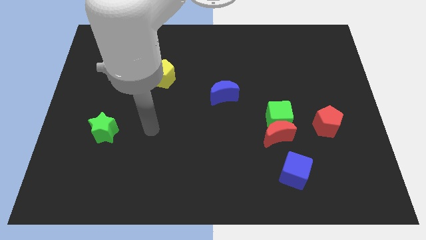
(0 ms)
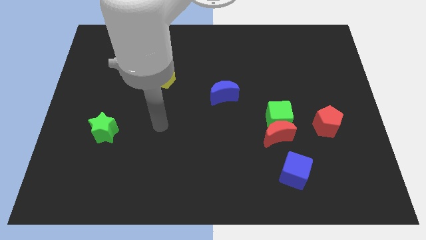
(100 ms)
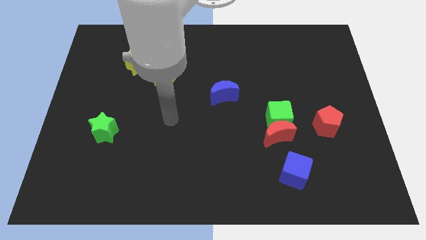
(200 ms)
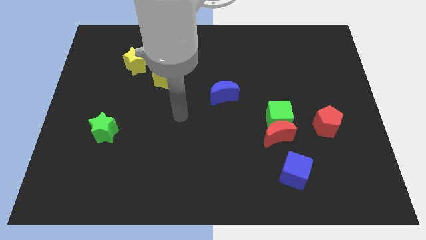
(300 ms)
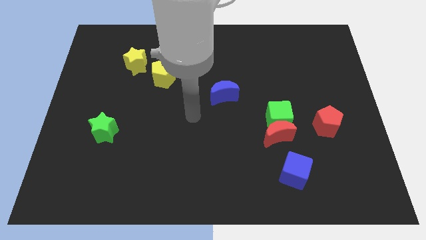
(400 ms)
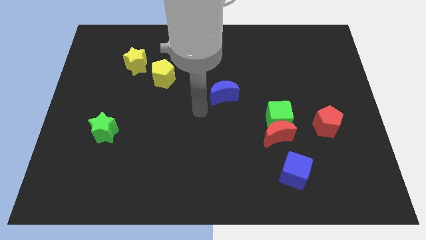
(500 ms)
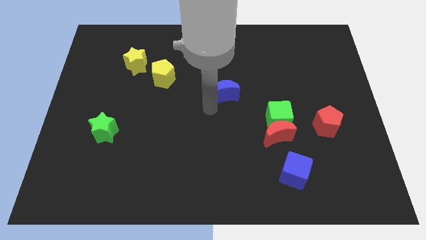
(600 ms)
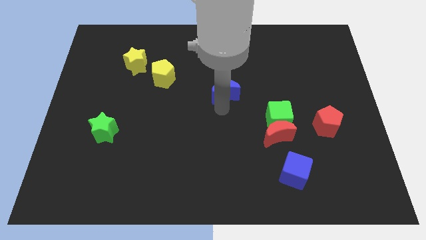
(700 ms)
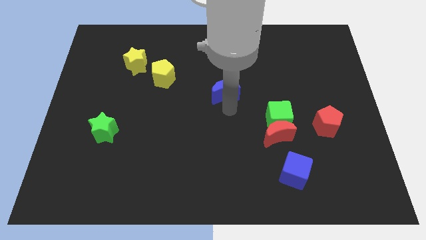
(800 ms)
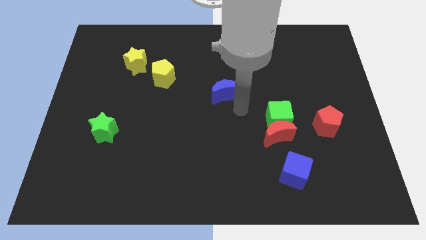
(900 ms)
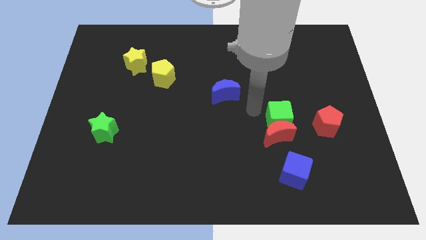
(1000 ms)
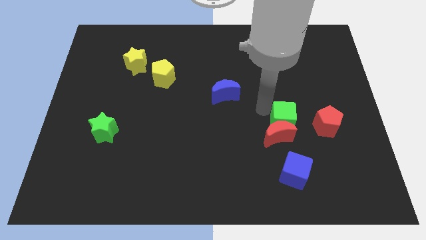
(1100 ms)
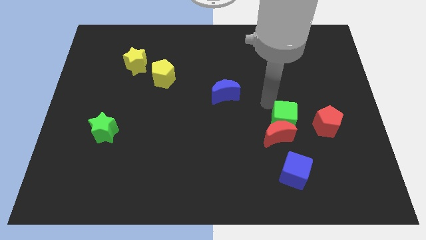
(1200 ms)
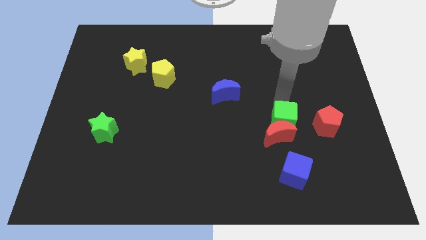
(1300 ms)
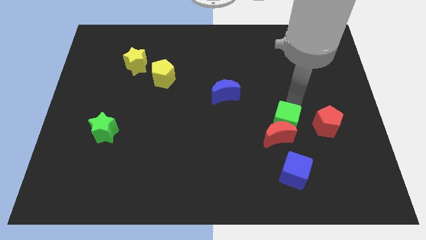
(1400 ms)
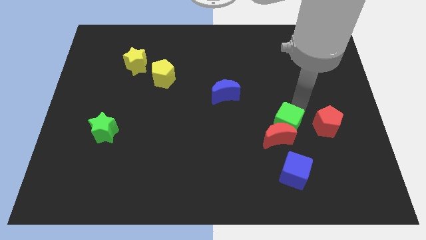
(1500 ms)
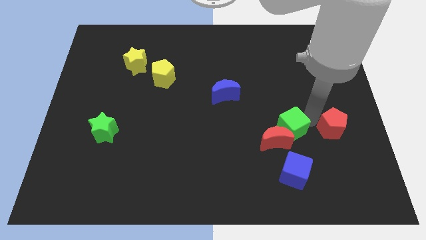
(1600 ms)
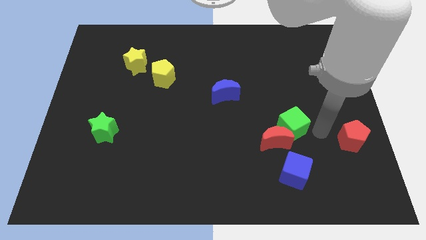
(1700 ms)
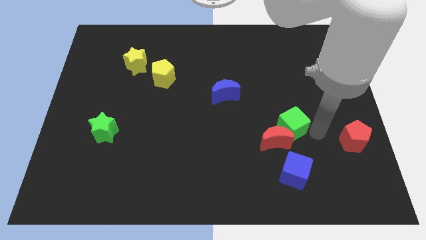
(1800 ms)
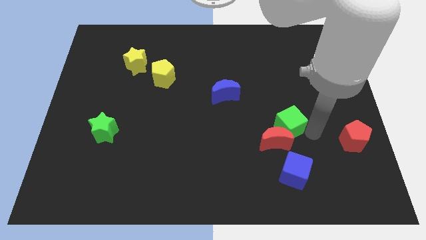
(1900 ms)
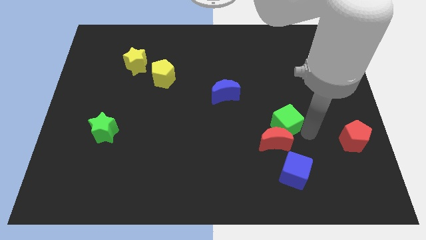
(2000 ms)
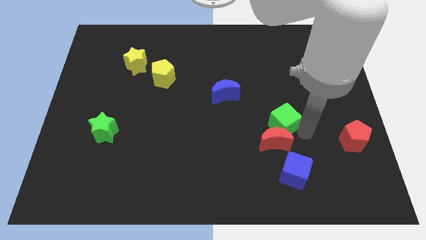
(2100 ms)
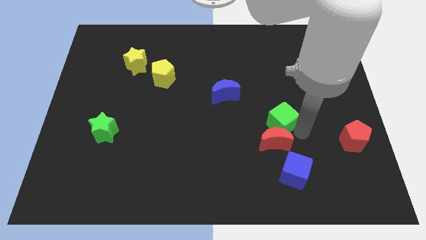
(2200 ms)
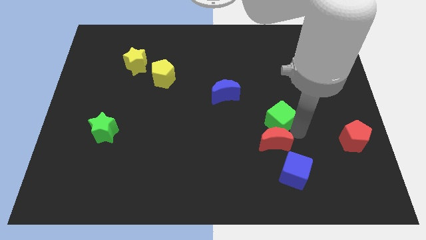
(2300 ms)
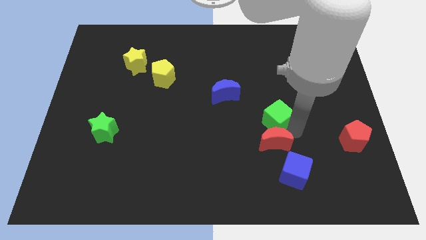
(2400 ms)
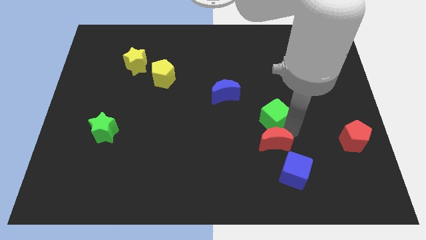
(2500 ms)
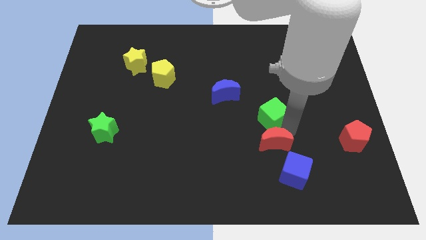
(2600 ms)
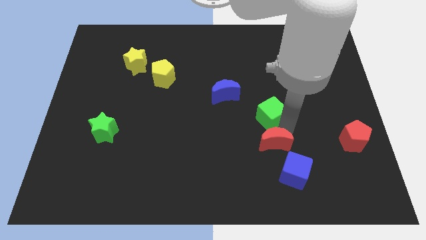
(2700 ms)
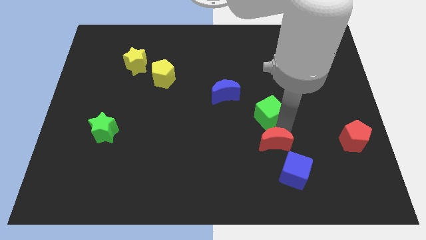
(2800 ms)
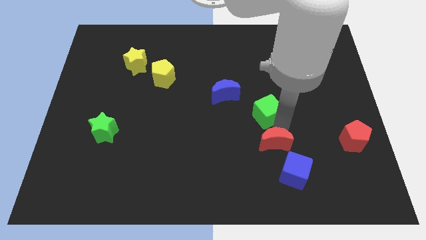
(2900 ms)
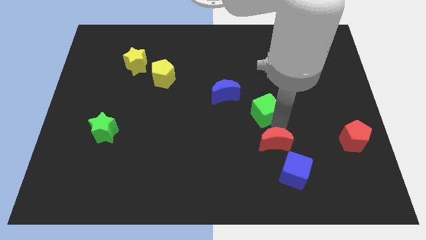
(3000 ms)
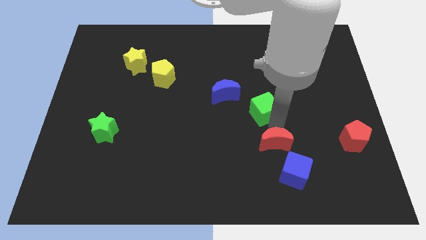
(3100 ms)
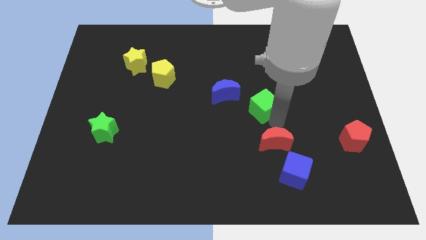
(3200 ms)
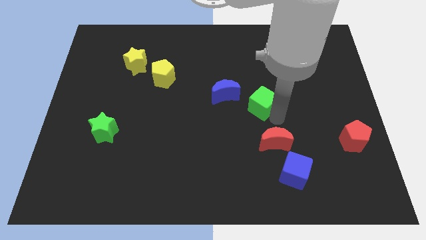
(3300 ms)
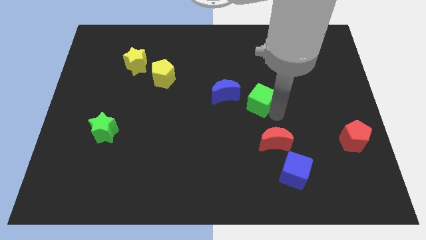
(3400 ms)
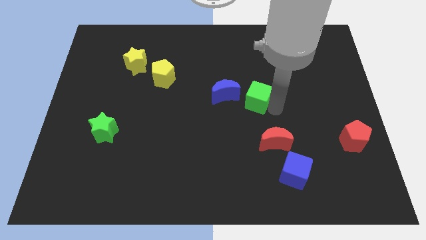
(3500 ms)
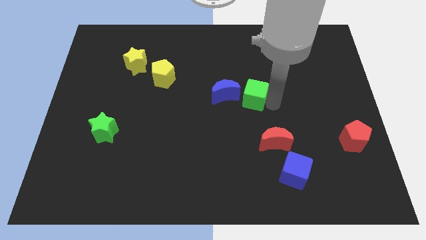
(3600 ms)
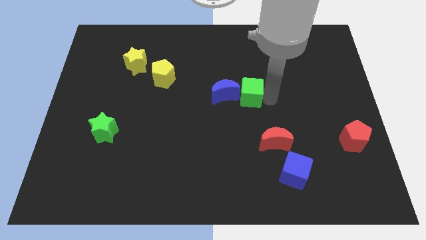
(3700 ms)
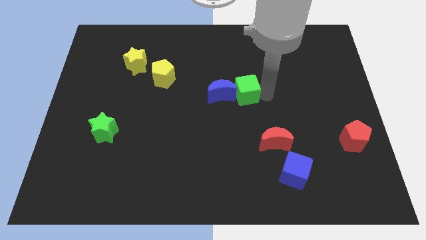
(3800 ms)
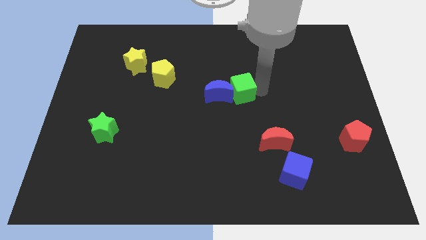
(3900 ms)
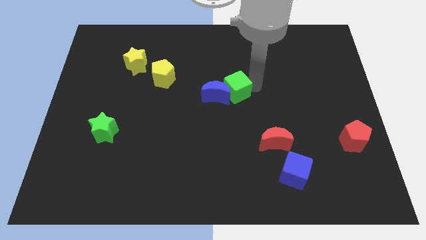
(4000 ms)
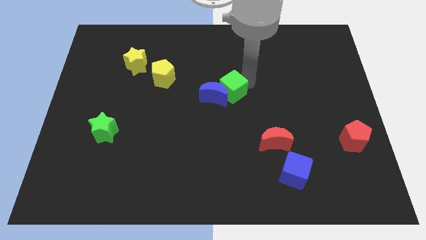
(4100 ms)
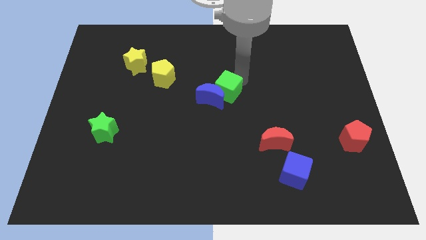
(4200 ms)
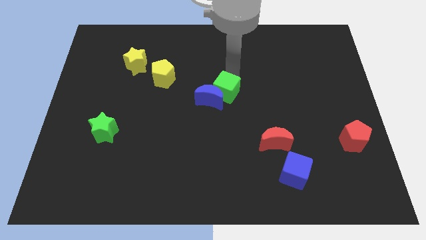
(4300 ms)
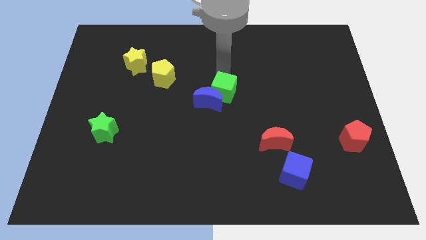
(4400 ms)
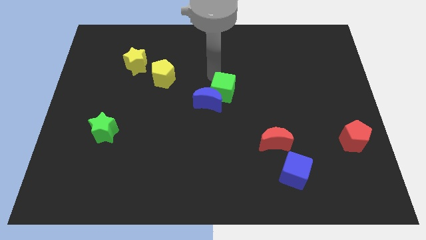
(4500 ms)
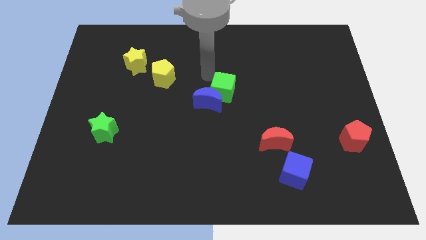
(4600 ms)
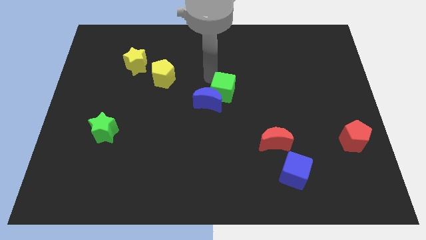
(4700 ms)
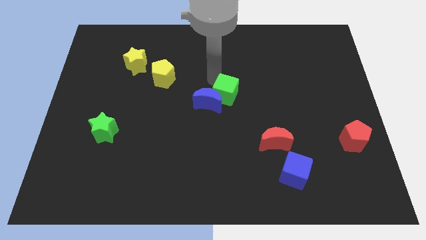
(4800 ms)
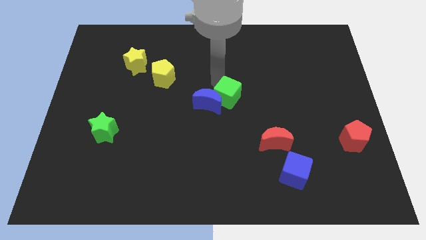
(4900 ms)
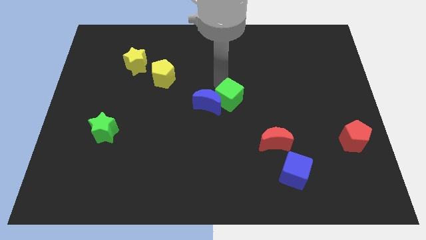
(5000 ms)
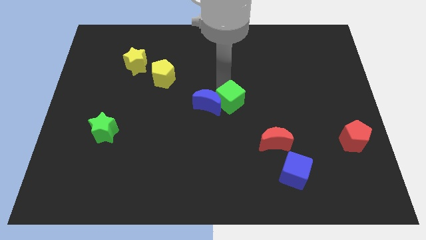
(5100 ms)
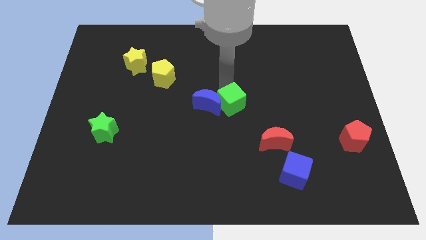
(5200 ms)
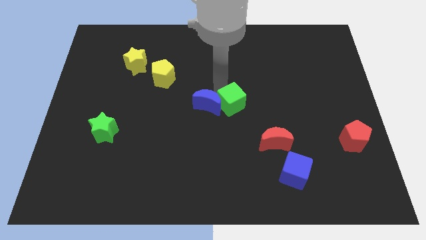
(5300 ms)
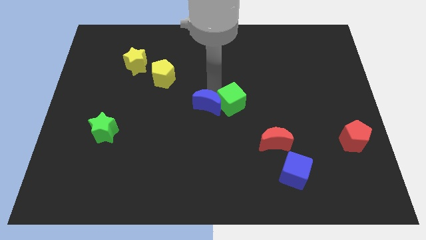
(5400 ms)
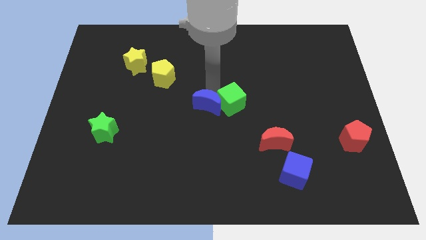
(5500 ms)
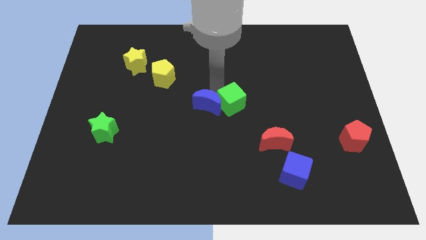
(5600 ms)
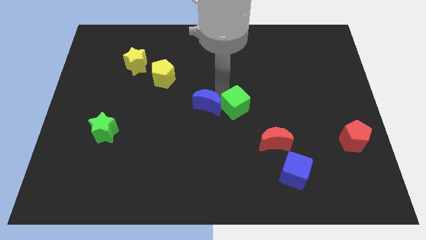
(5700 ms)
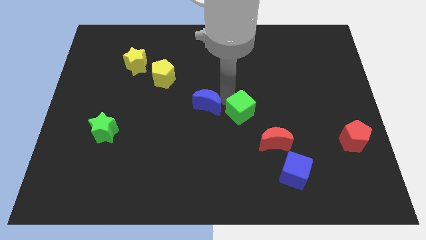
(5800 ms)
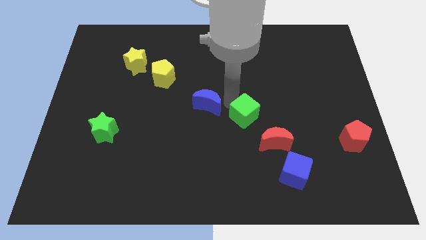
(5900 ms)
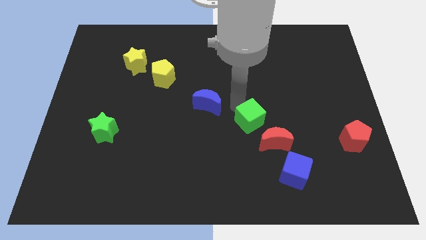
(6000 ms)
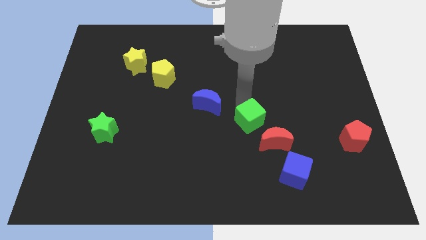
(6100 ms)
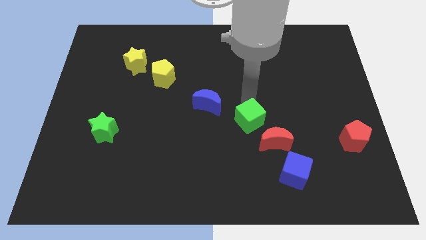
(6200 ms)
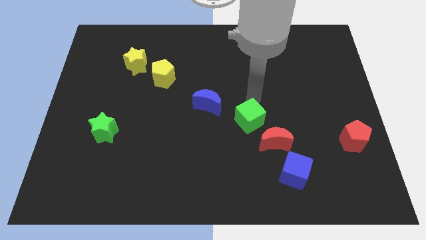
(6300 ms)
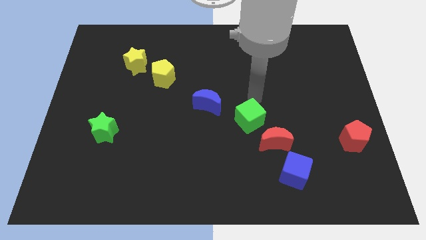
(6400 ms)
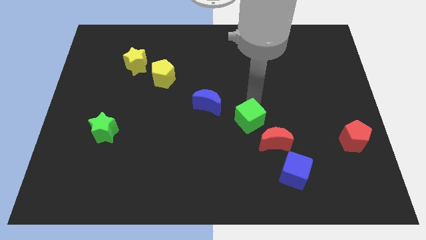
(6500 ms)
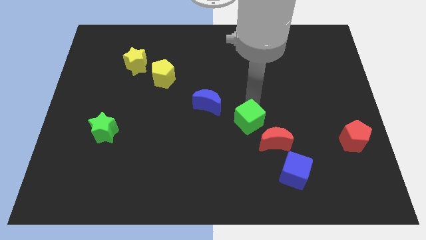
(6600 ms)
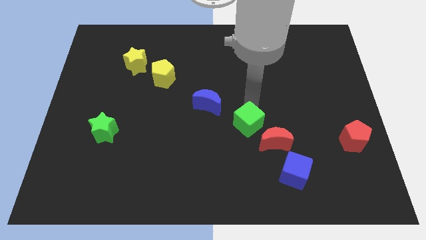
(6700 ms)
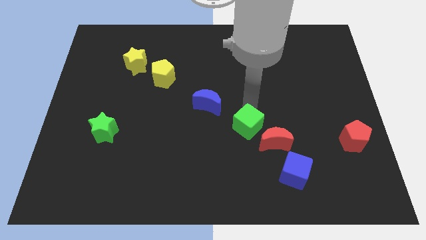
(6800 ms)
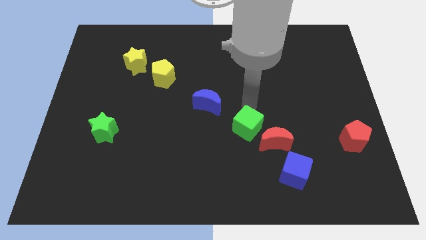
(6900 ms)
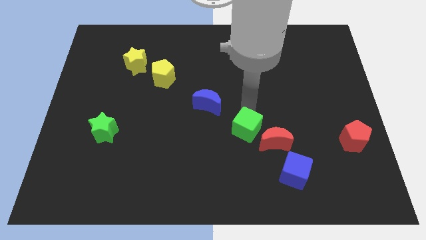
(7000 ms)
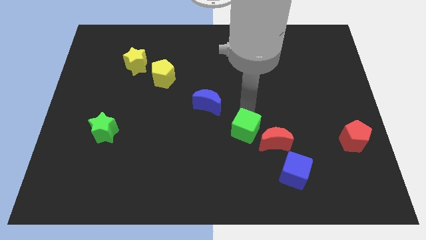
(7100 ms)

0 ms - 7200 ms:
slightly slide the green cube down and left

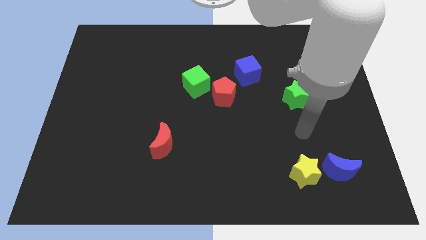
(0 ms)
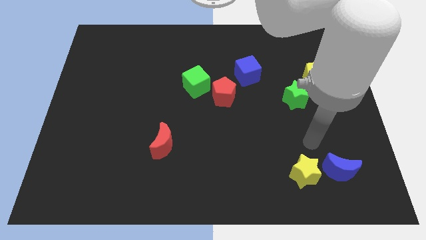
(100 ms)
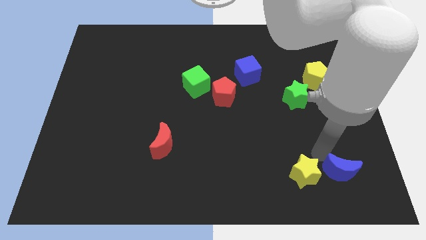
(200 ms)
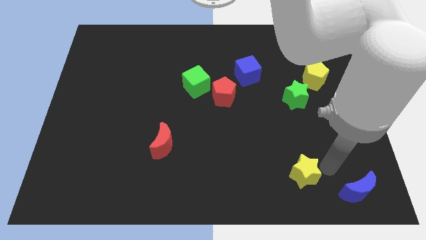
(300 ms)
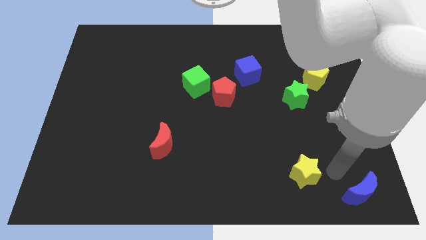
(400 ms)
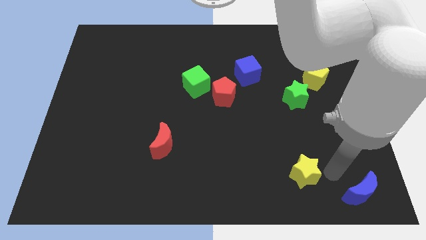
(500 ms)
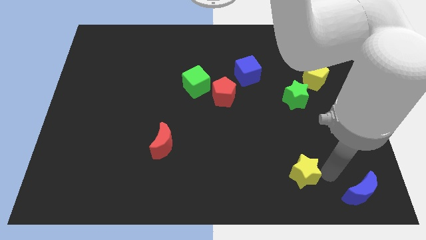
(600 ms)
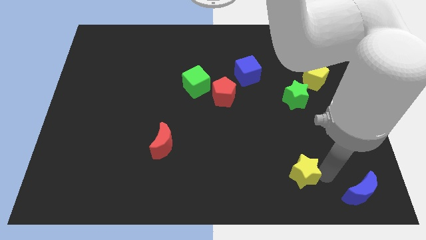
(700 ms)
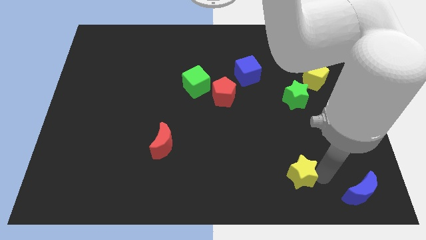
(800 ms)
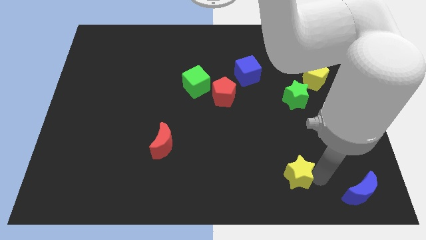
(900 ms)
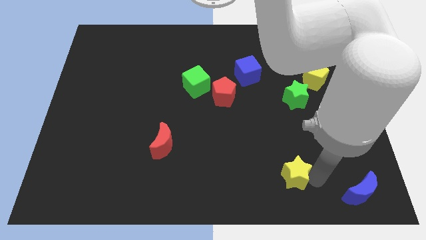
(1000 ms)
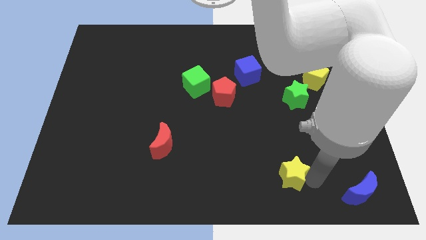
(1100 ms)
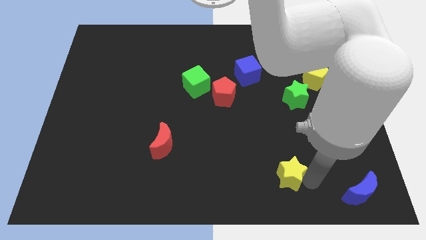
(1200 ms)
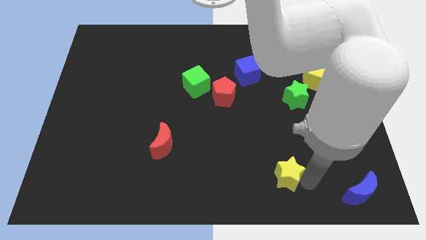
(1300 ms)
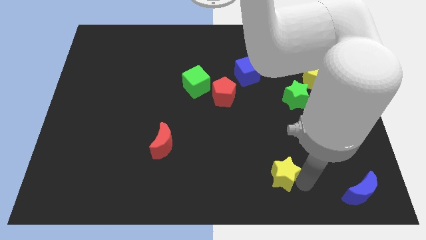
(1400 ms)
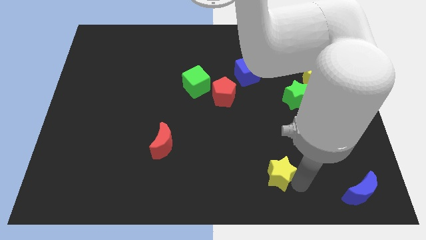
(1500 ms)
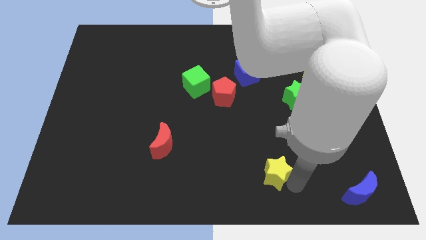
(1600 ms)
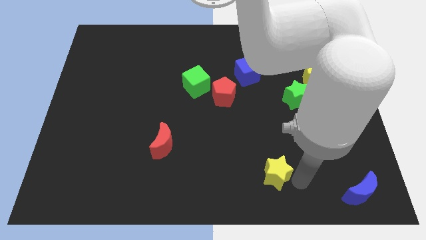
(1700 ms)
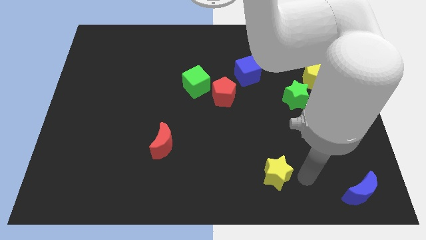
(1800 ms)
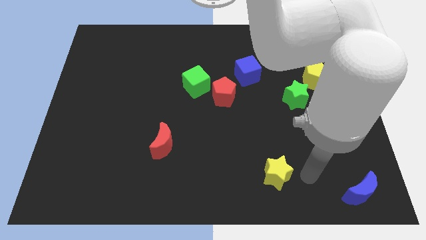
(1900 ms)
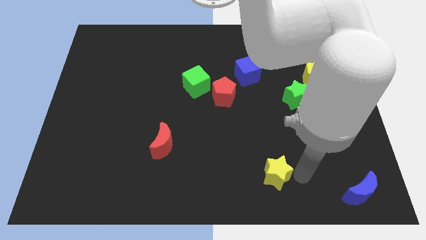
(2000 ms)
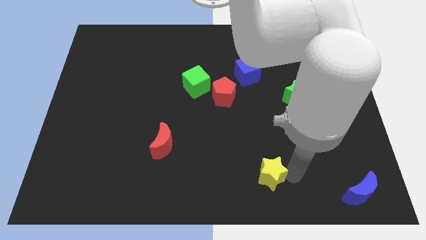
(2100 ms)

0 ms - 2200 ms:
move the yellow star left somewhat
